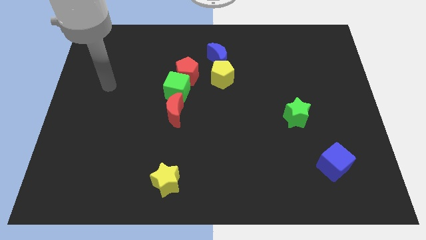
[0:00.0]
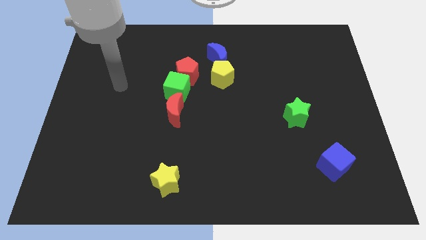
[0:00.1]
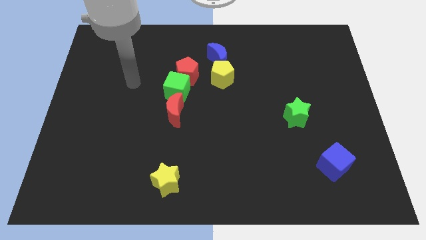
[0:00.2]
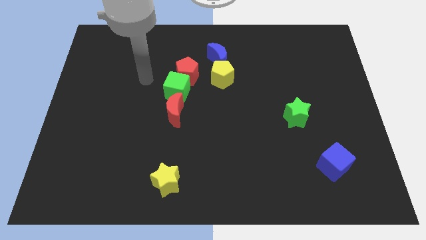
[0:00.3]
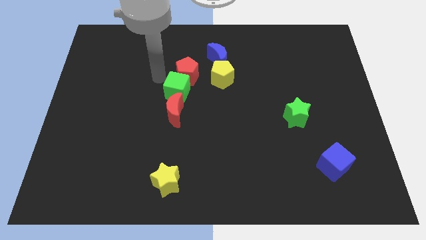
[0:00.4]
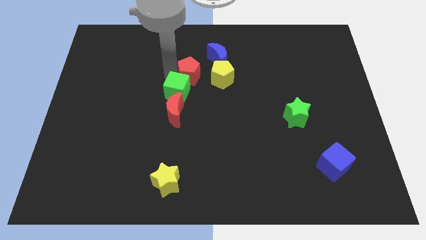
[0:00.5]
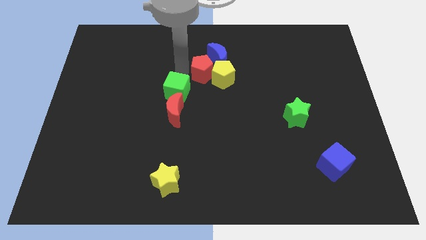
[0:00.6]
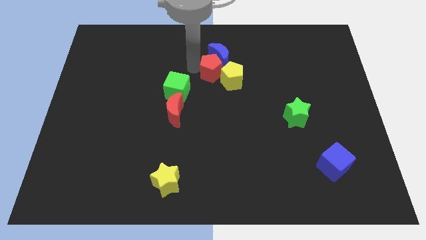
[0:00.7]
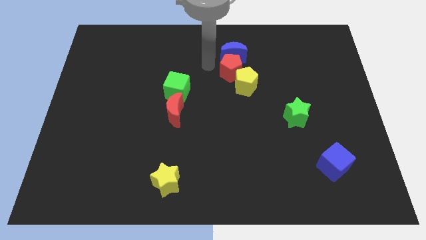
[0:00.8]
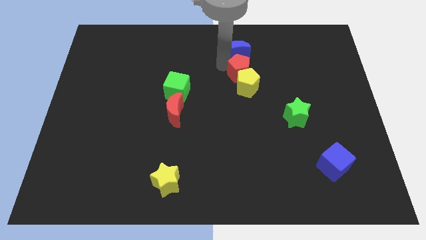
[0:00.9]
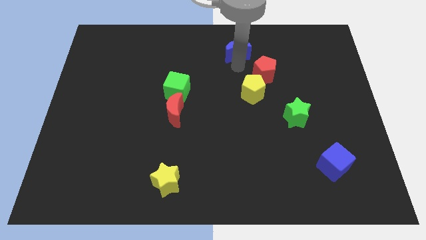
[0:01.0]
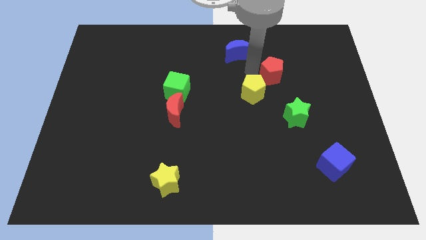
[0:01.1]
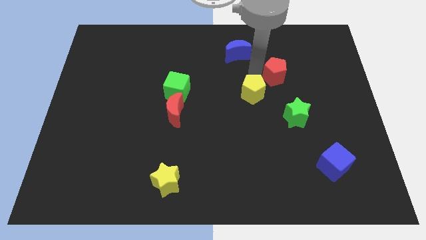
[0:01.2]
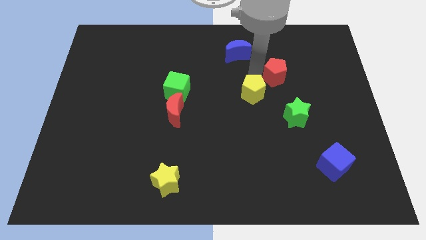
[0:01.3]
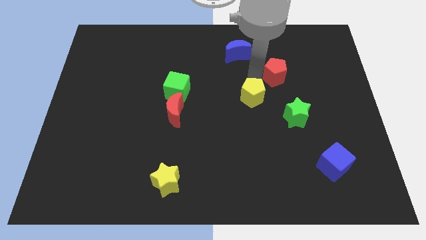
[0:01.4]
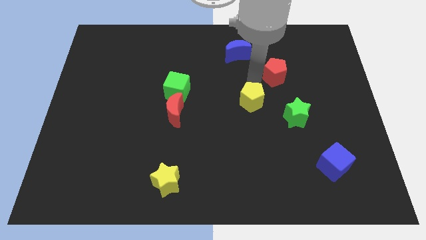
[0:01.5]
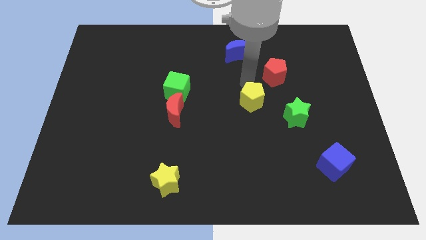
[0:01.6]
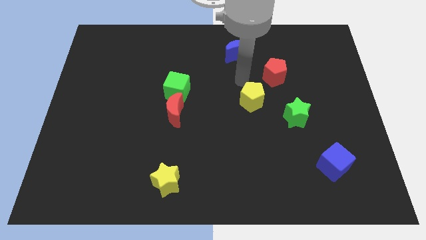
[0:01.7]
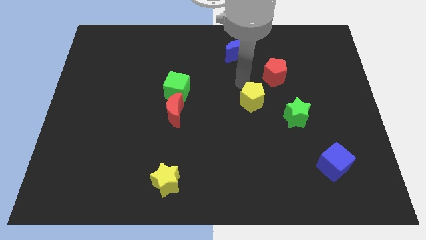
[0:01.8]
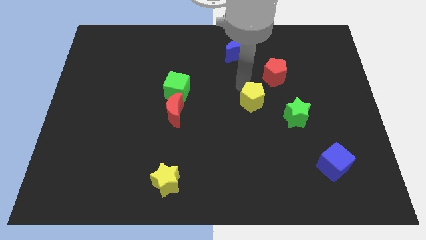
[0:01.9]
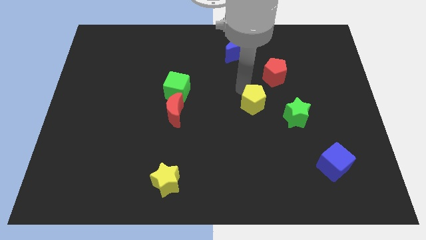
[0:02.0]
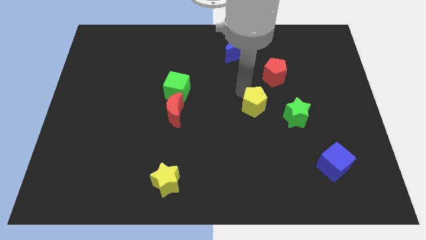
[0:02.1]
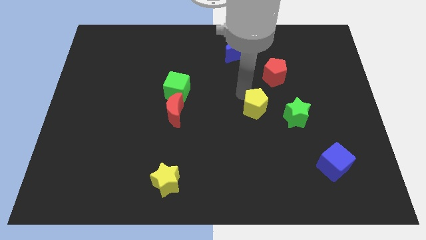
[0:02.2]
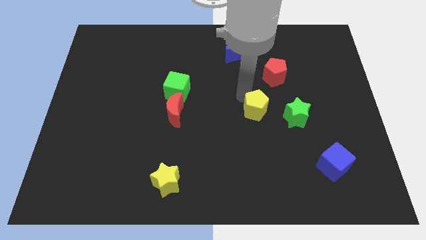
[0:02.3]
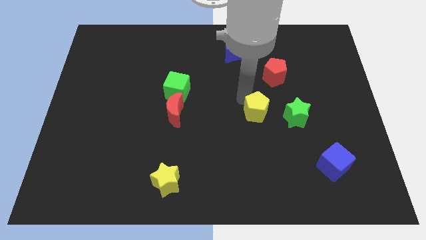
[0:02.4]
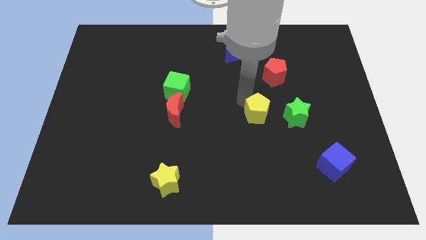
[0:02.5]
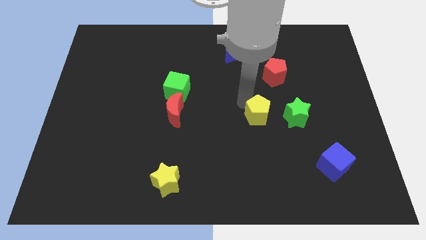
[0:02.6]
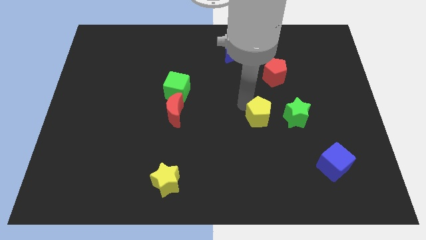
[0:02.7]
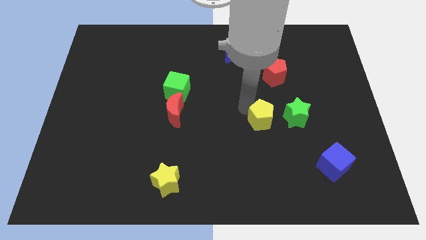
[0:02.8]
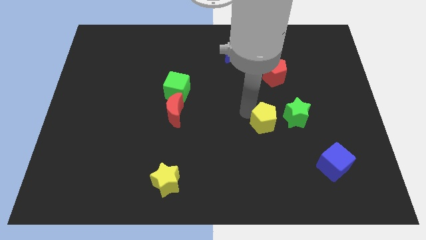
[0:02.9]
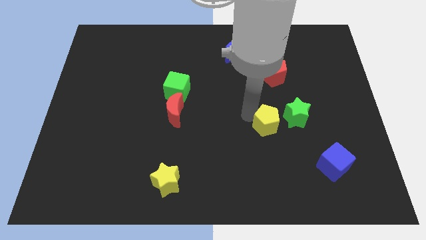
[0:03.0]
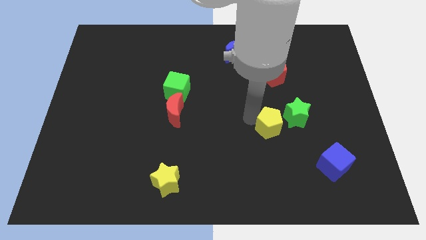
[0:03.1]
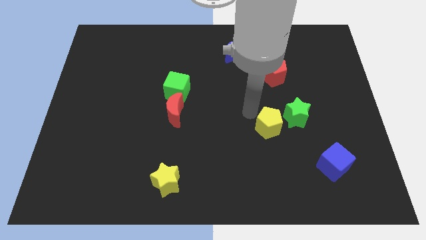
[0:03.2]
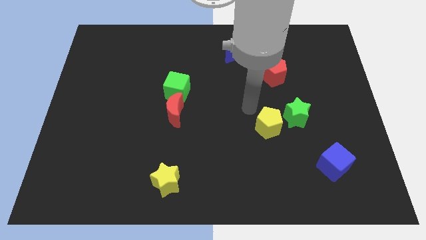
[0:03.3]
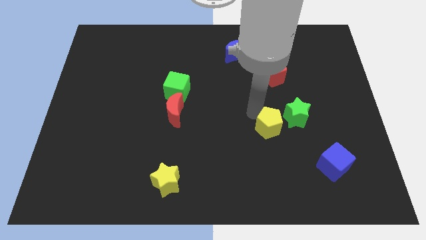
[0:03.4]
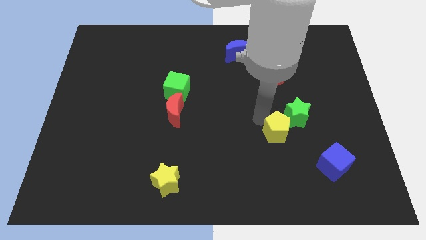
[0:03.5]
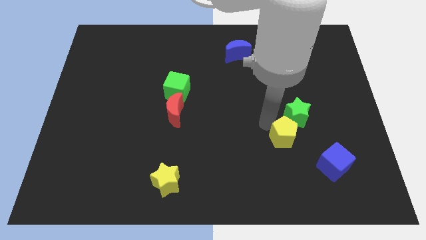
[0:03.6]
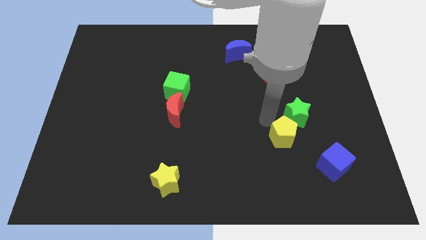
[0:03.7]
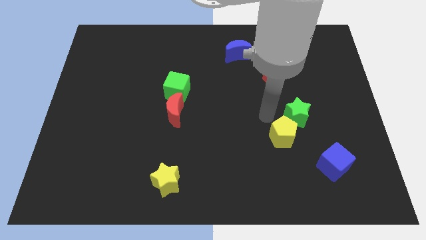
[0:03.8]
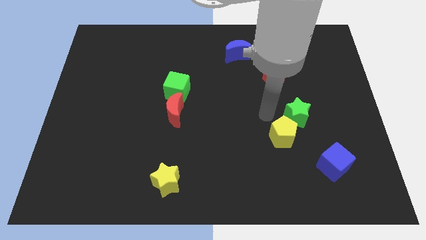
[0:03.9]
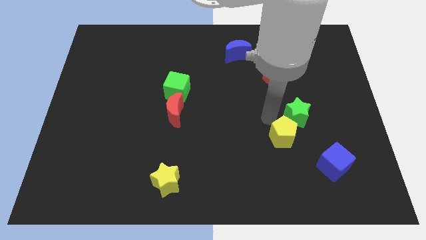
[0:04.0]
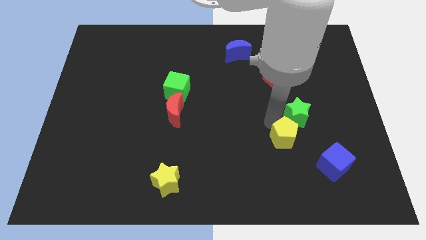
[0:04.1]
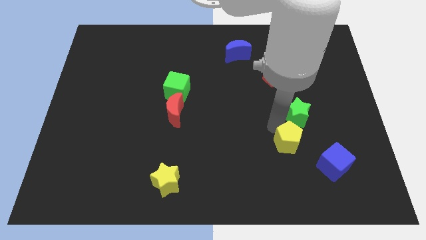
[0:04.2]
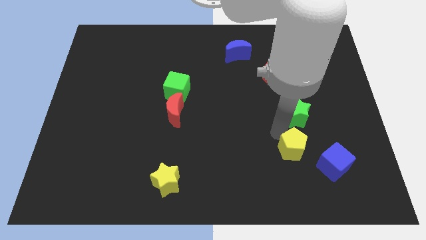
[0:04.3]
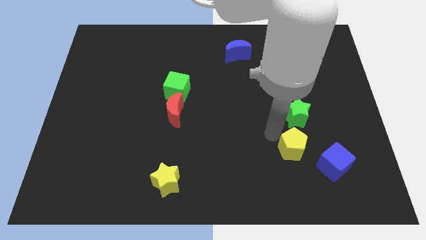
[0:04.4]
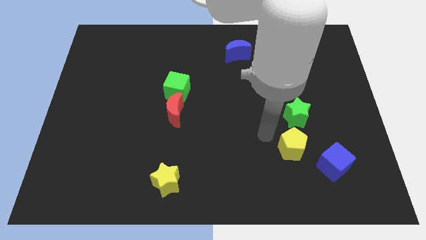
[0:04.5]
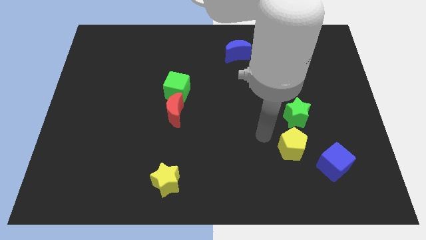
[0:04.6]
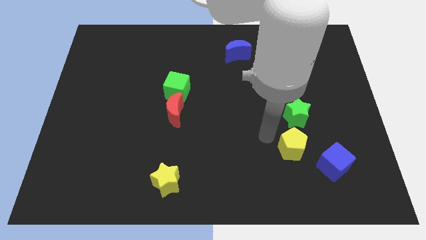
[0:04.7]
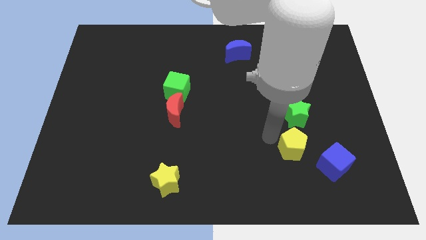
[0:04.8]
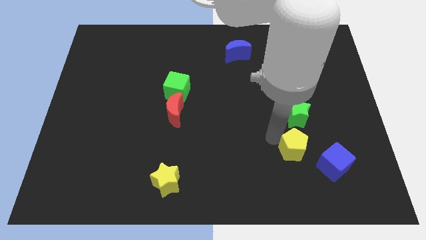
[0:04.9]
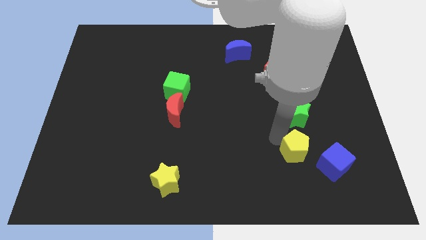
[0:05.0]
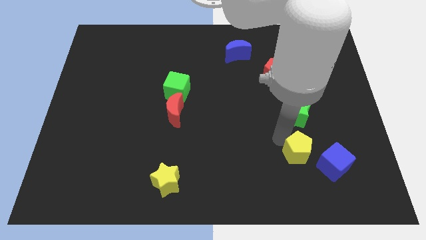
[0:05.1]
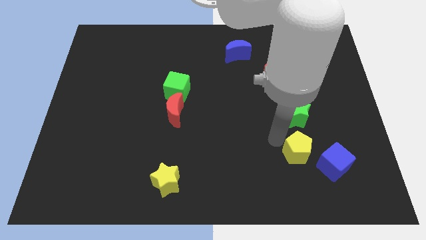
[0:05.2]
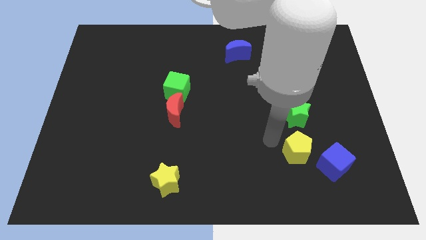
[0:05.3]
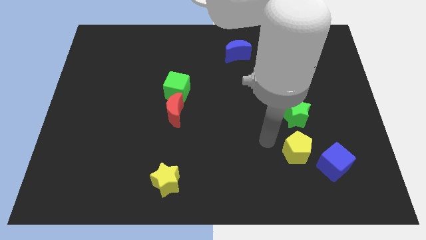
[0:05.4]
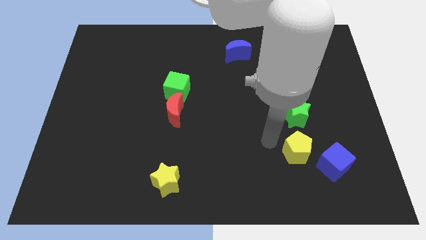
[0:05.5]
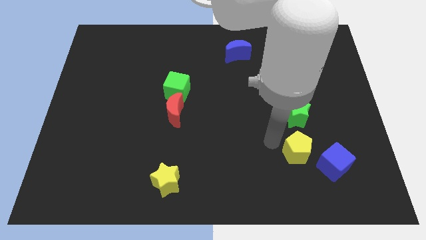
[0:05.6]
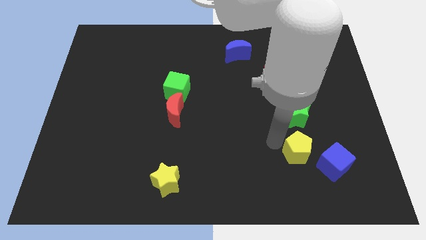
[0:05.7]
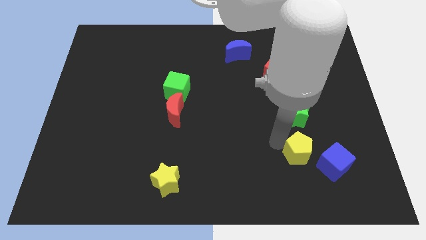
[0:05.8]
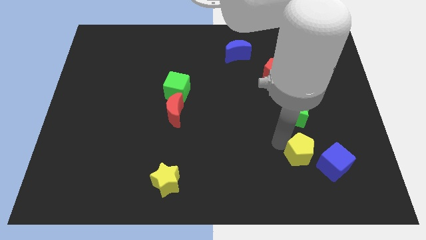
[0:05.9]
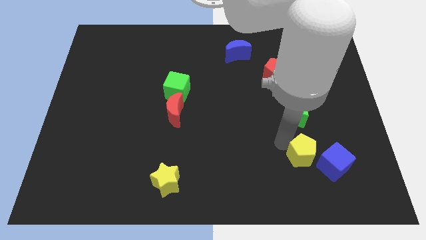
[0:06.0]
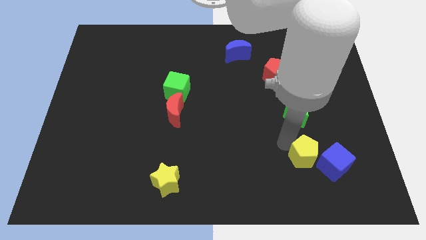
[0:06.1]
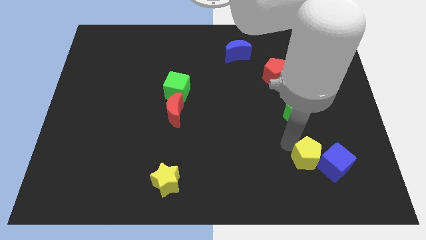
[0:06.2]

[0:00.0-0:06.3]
push the yellow pentagon close to the blue cube
